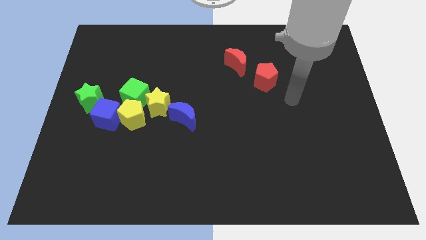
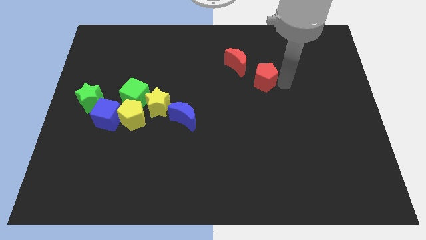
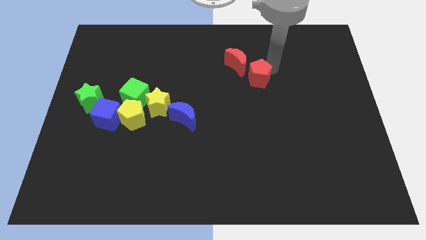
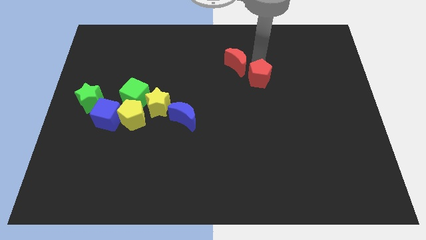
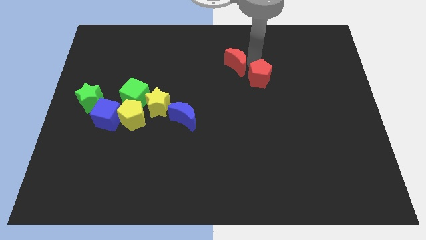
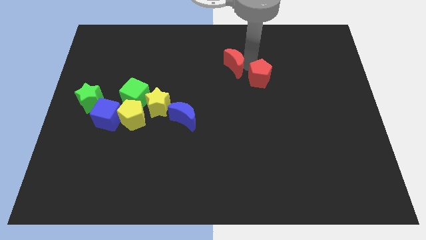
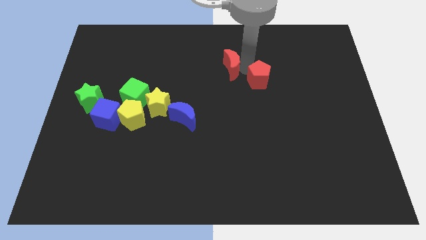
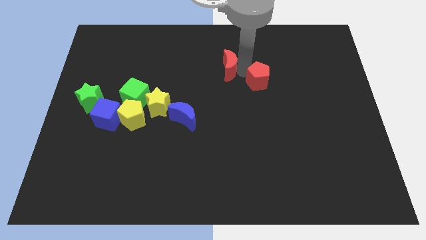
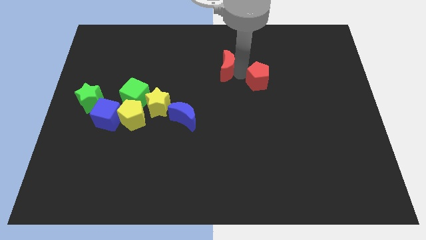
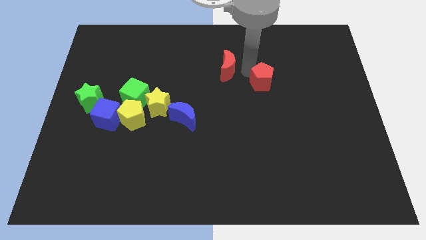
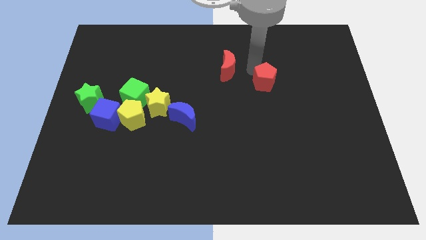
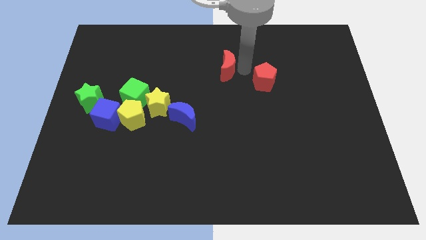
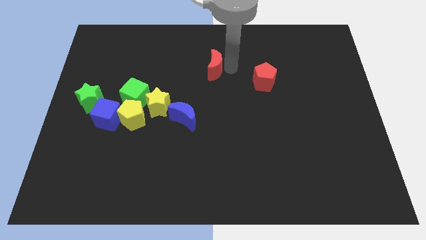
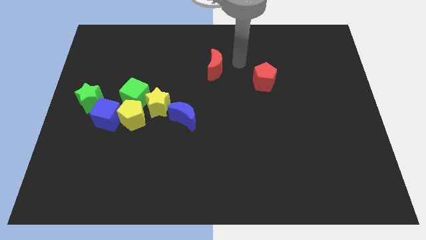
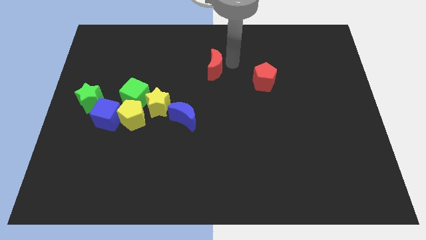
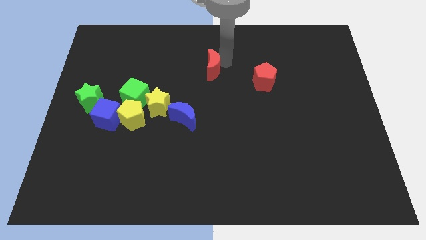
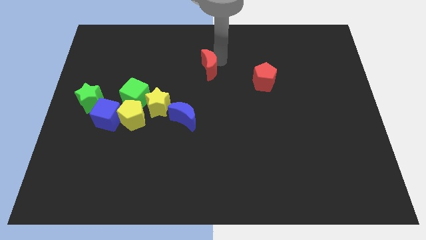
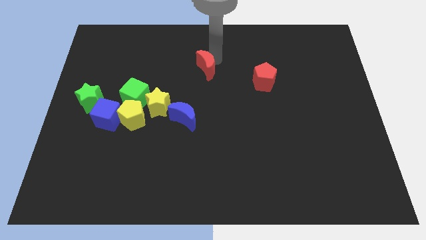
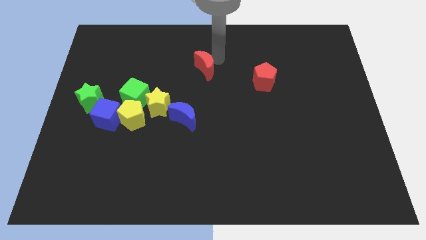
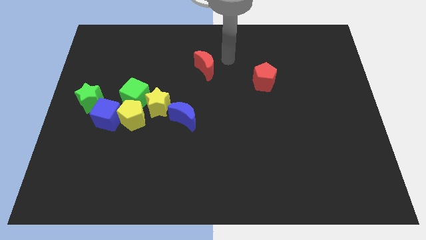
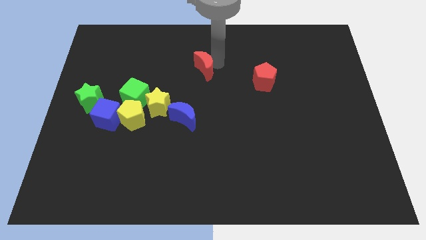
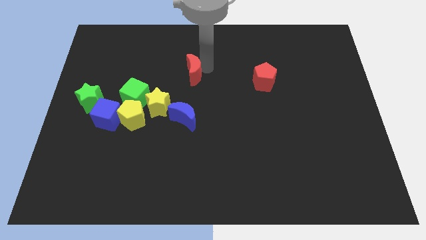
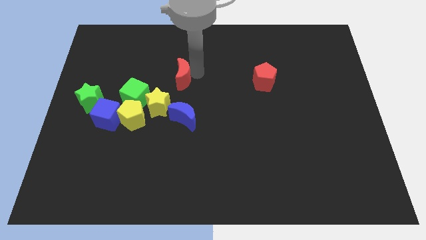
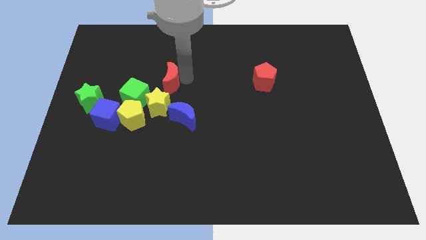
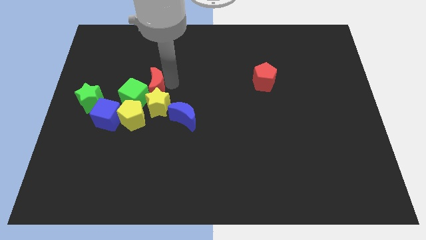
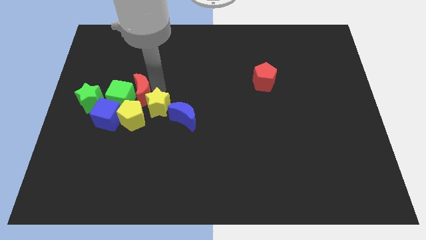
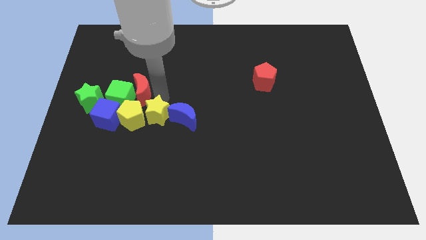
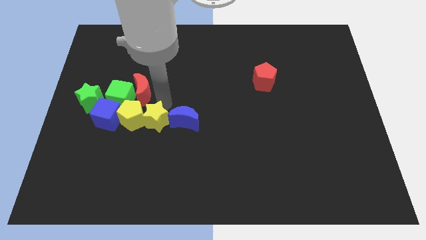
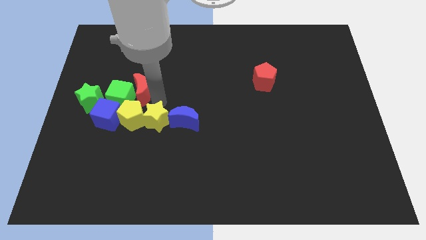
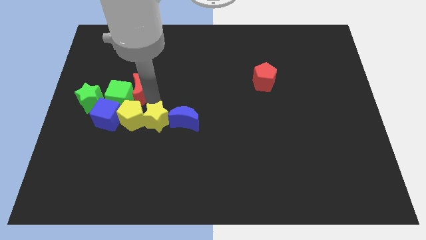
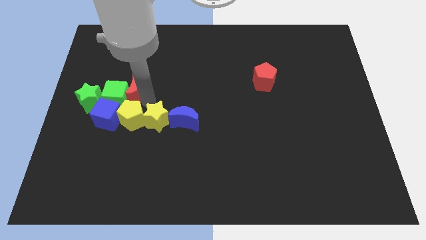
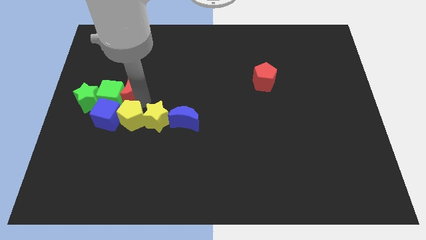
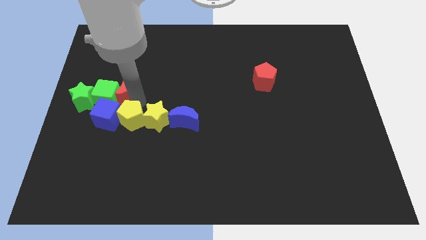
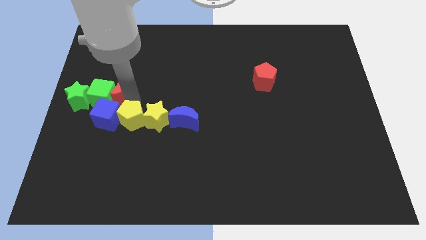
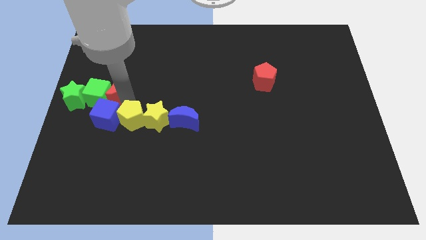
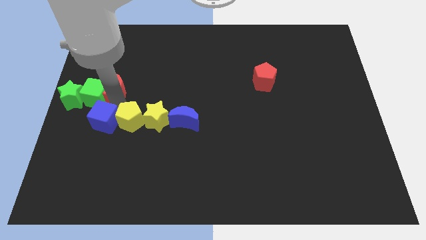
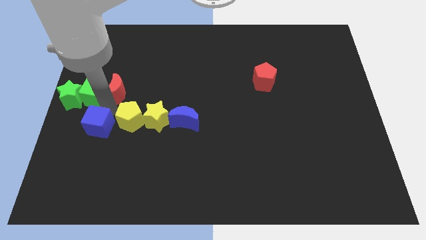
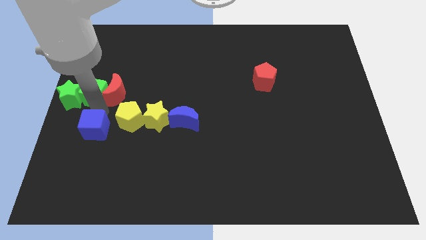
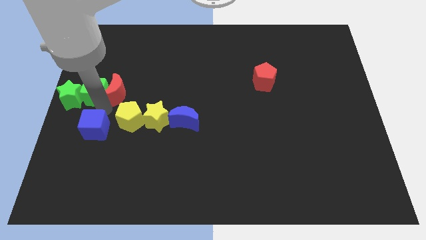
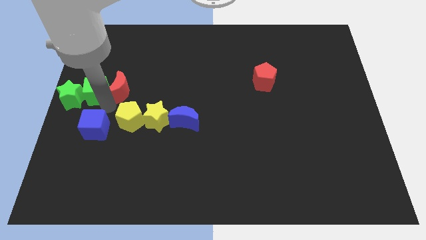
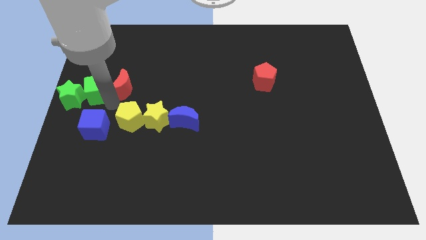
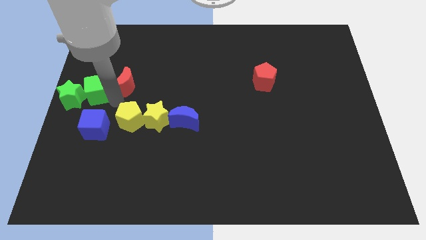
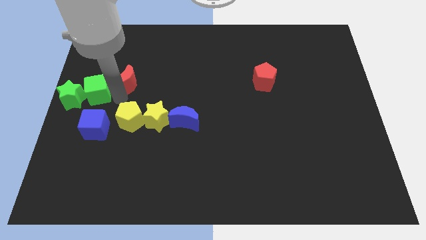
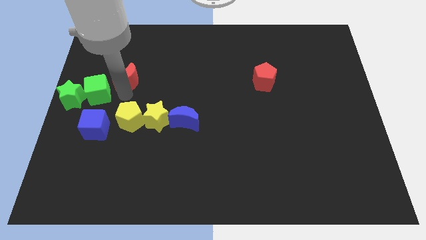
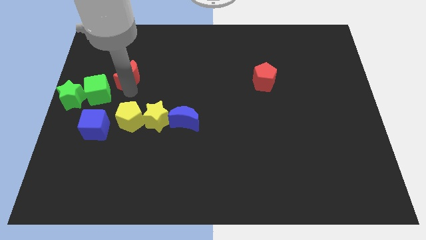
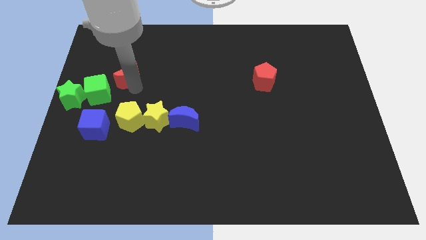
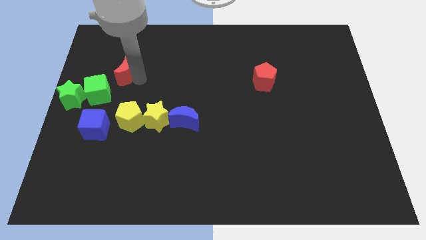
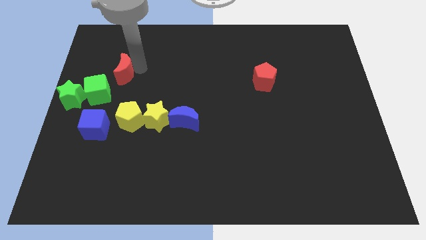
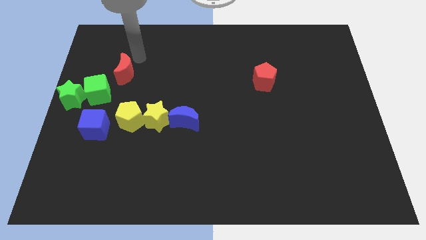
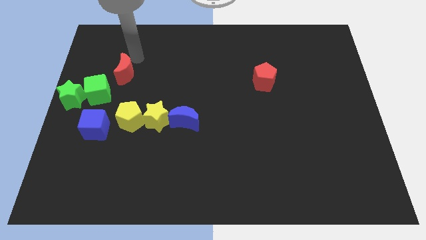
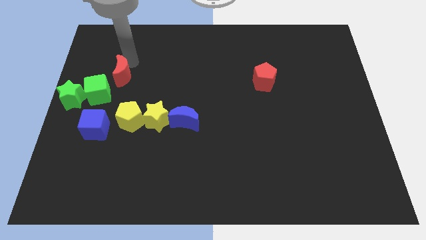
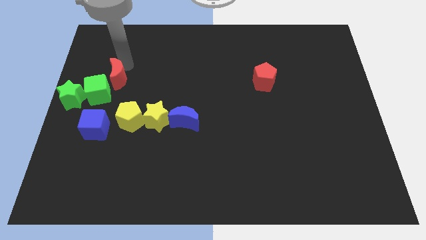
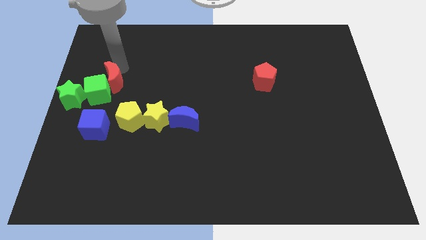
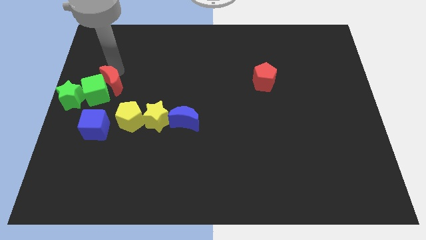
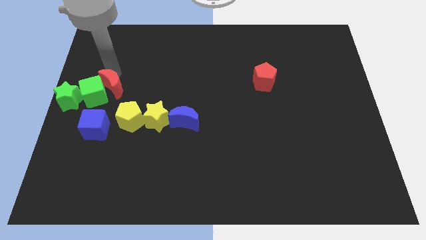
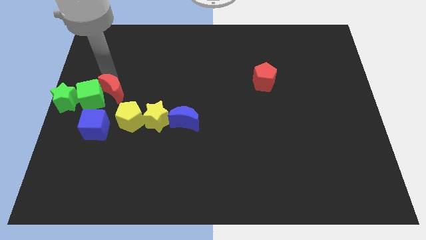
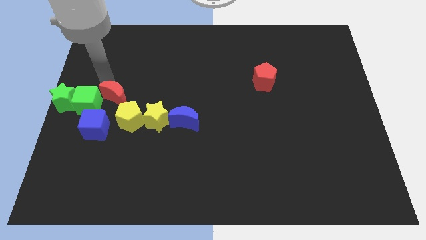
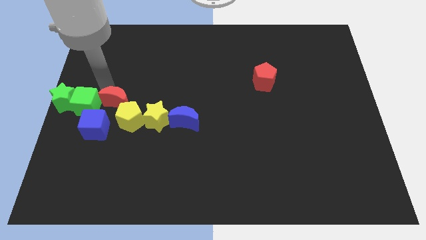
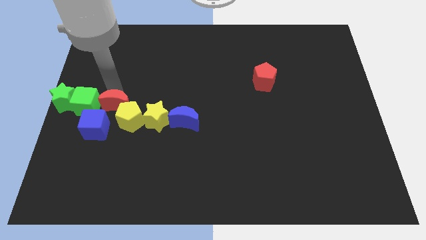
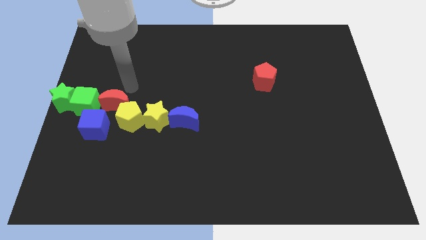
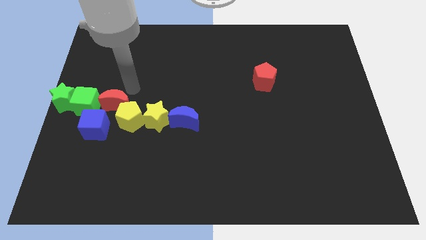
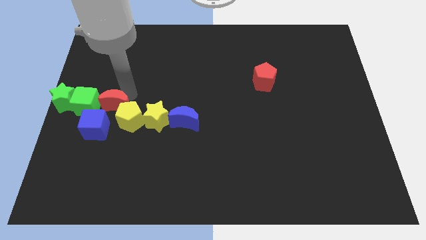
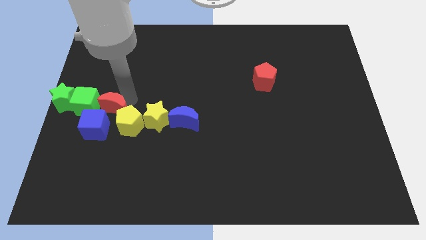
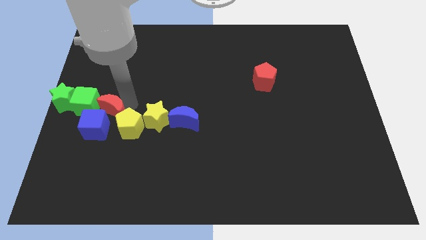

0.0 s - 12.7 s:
put the red moon close to the blue cube

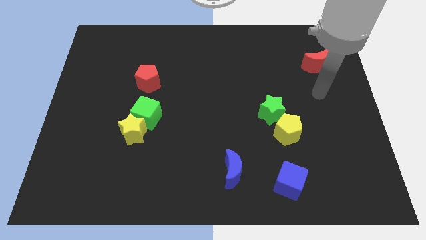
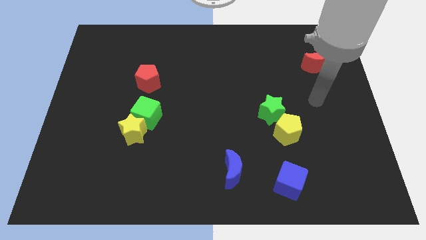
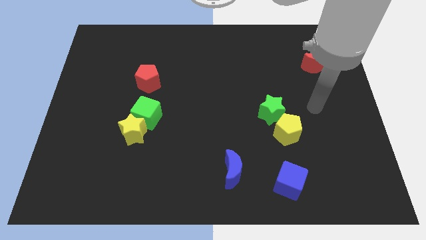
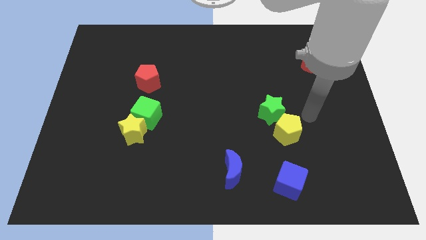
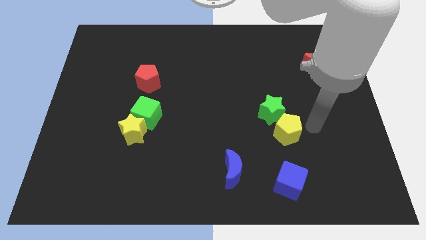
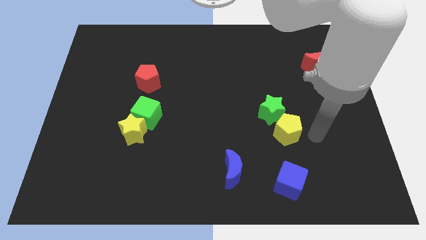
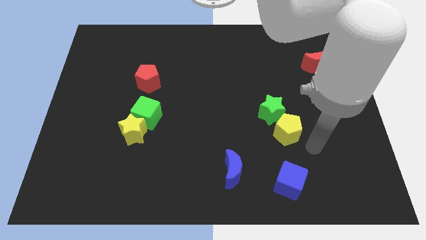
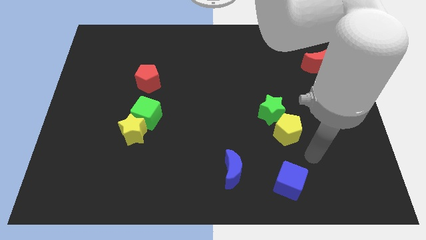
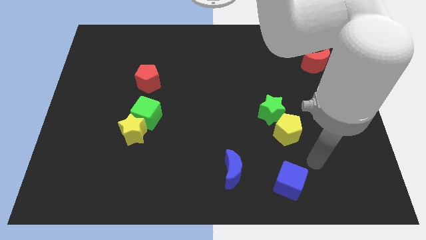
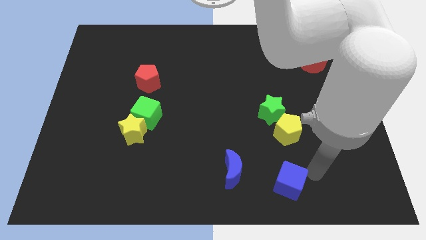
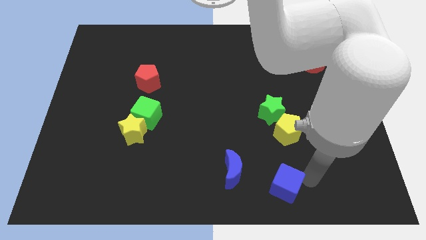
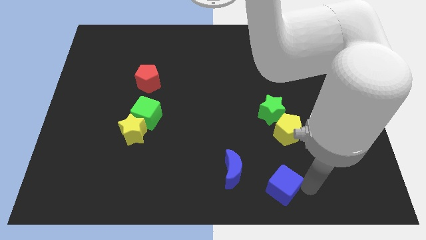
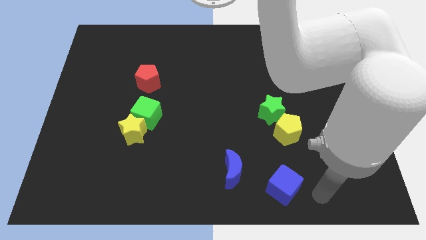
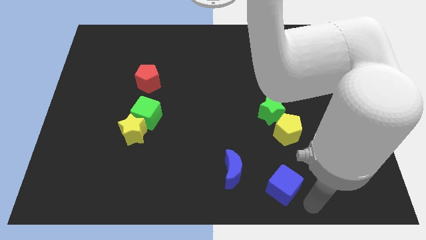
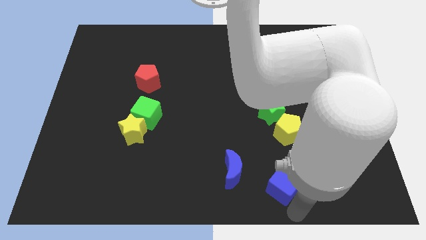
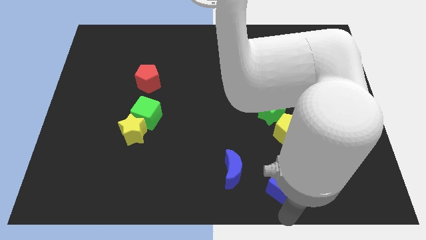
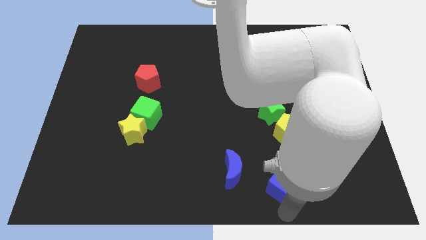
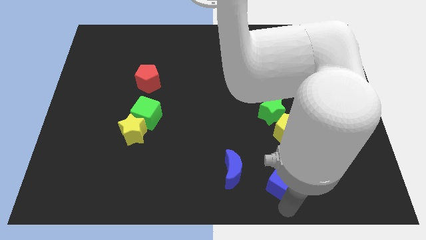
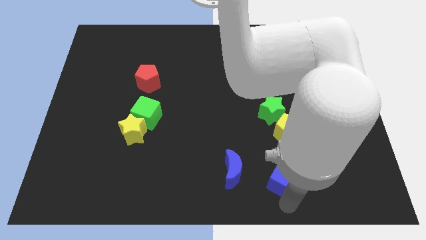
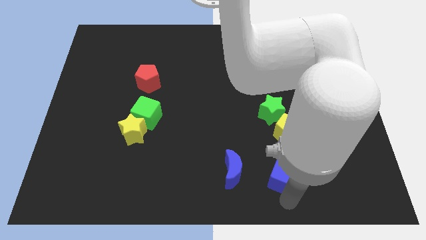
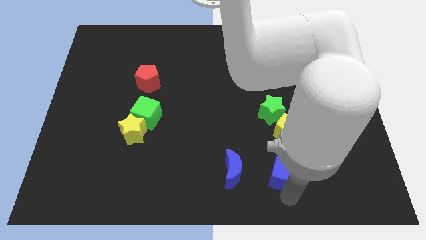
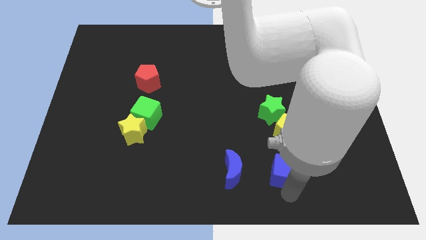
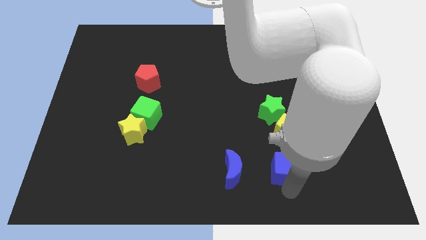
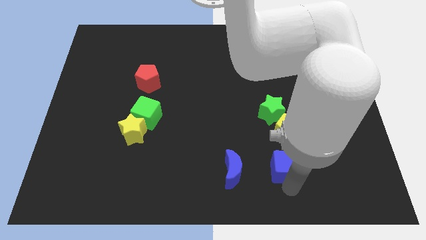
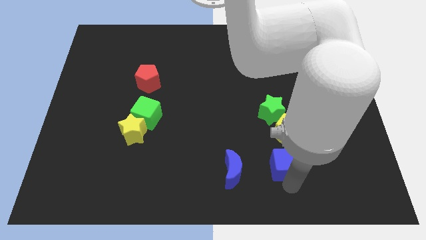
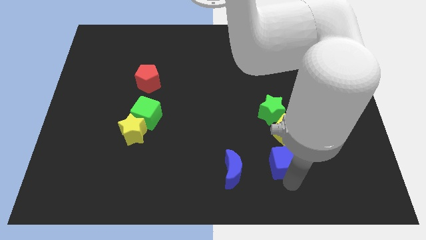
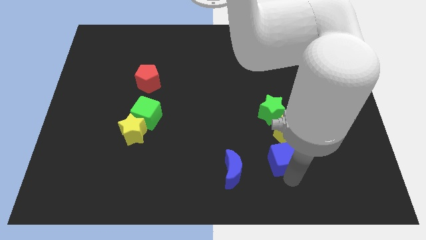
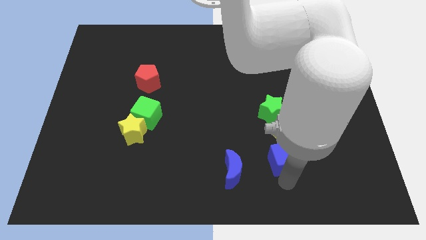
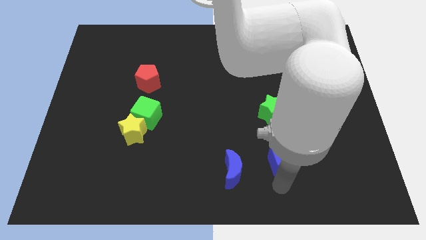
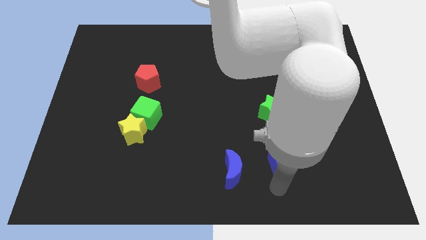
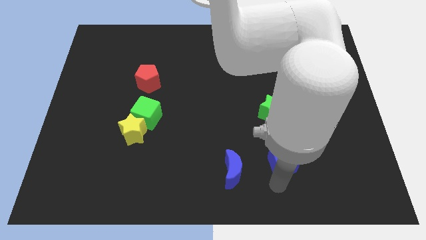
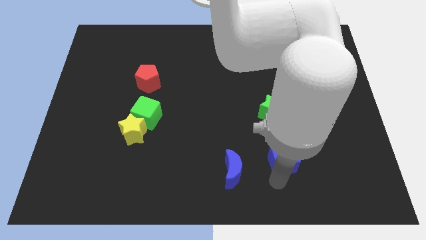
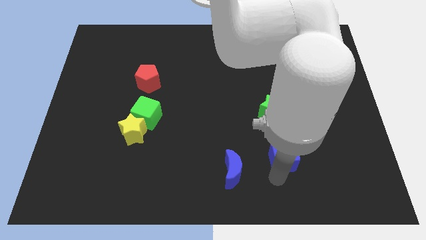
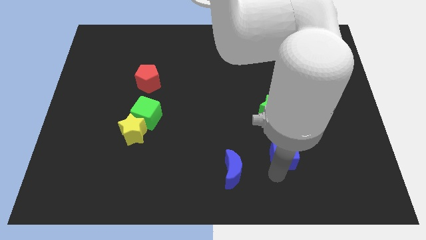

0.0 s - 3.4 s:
slide the blue cube close to the yellow pentagon
